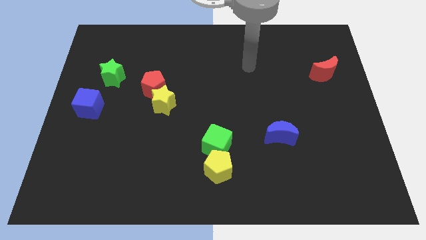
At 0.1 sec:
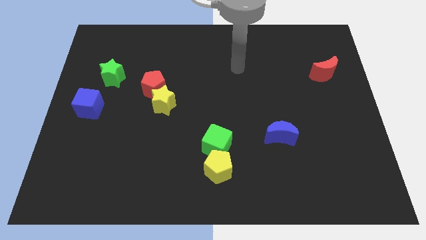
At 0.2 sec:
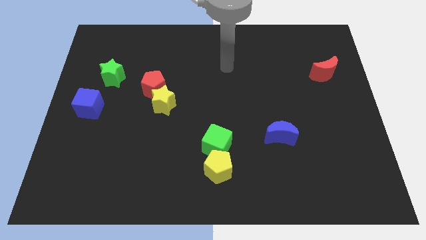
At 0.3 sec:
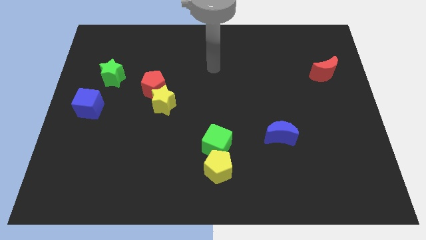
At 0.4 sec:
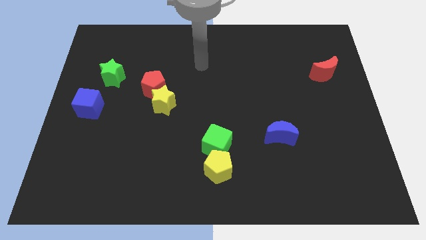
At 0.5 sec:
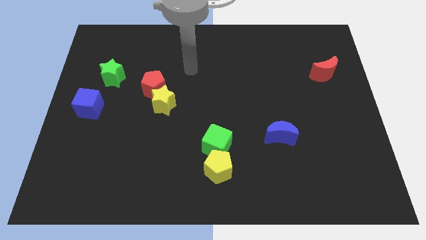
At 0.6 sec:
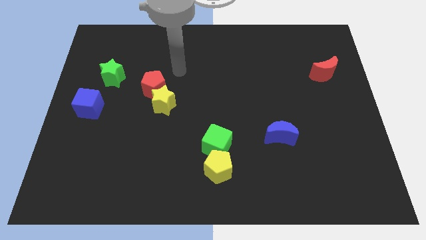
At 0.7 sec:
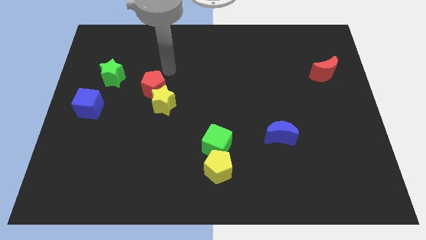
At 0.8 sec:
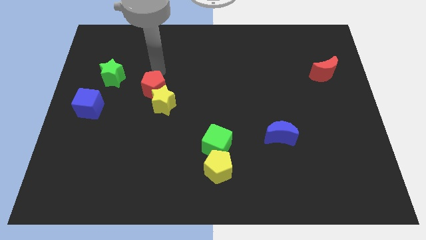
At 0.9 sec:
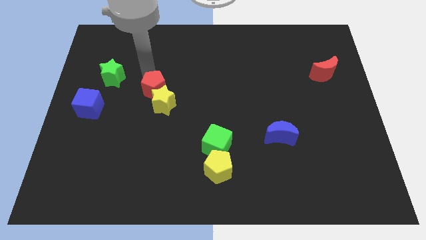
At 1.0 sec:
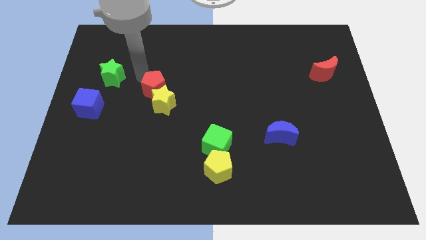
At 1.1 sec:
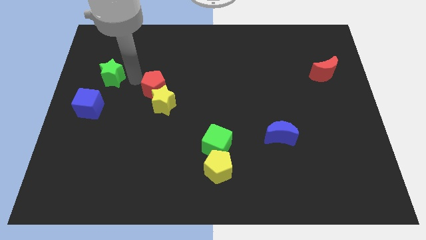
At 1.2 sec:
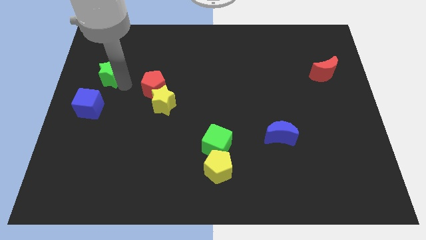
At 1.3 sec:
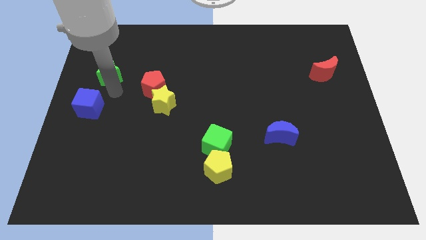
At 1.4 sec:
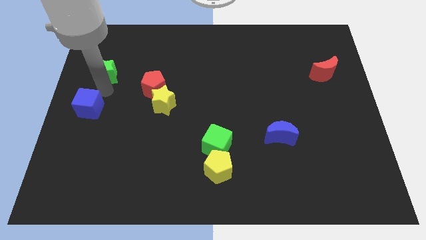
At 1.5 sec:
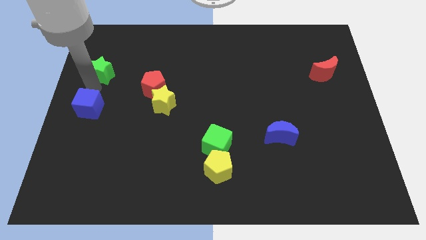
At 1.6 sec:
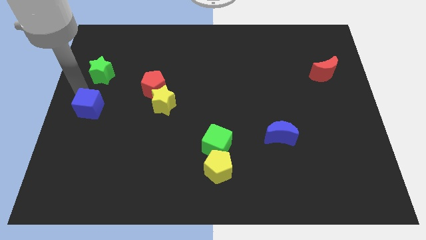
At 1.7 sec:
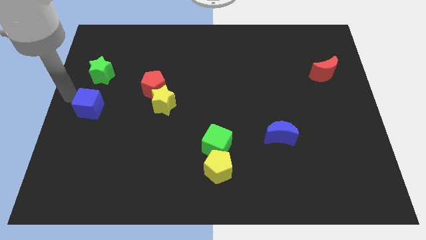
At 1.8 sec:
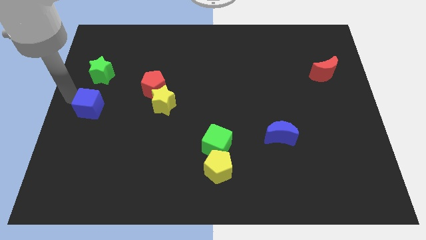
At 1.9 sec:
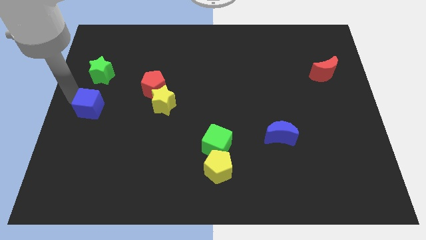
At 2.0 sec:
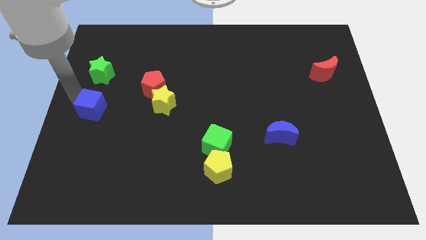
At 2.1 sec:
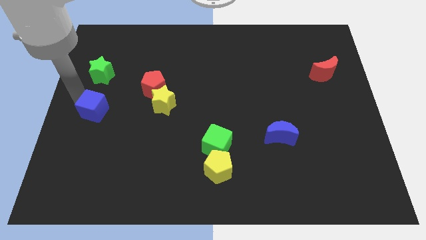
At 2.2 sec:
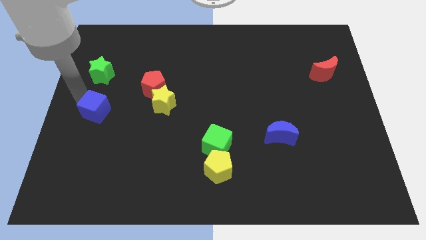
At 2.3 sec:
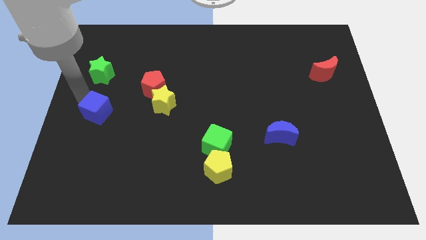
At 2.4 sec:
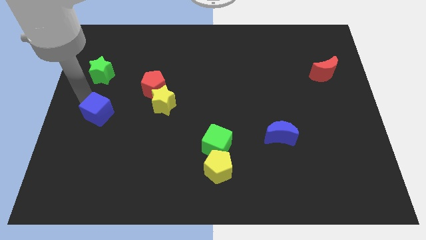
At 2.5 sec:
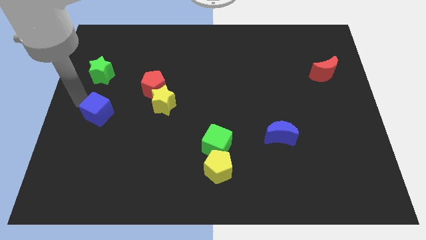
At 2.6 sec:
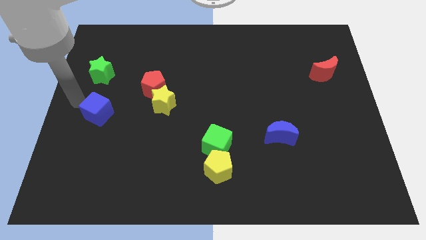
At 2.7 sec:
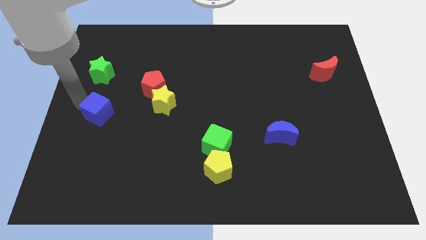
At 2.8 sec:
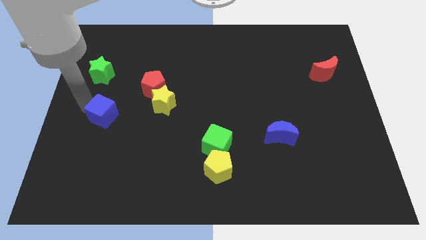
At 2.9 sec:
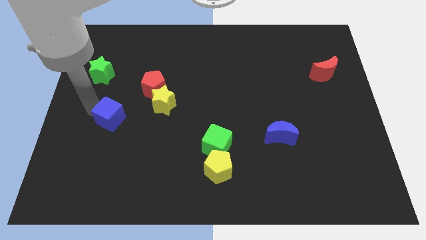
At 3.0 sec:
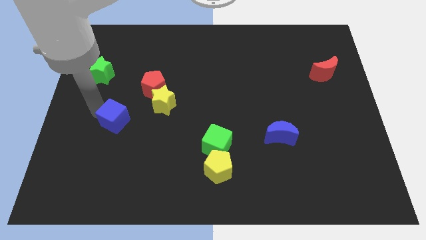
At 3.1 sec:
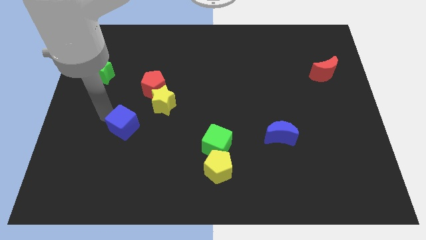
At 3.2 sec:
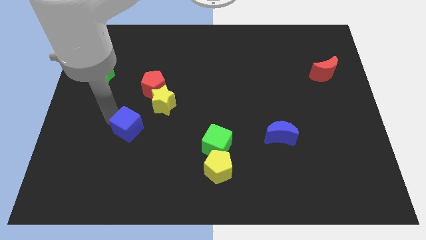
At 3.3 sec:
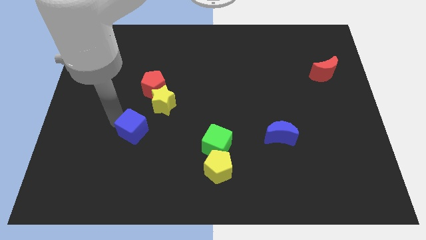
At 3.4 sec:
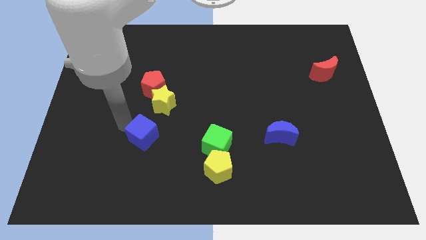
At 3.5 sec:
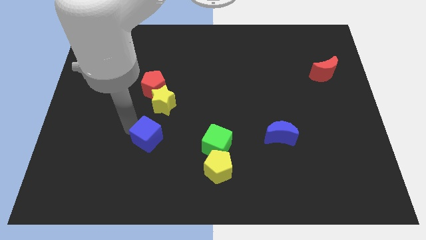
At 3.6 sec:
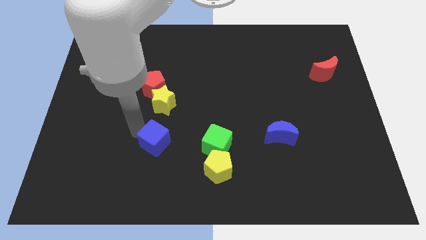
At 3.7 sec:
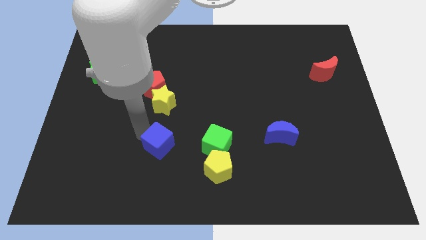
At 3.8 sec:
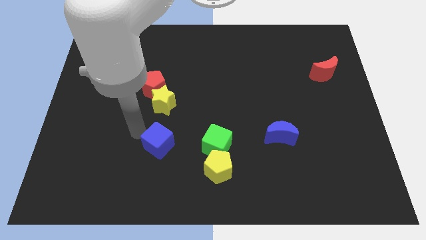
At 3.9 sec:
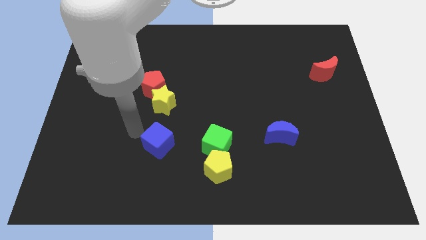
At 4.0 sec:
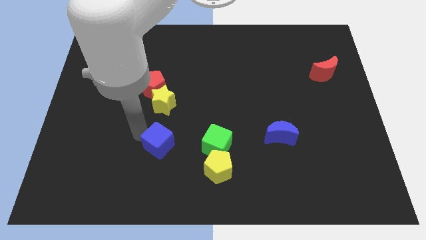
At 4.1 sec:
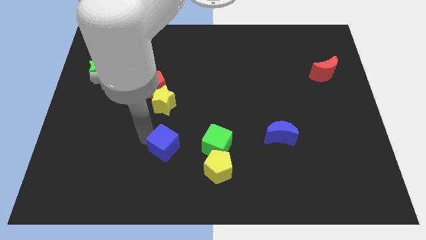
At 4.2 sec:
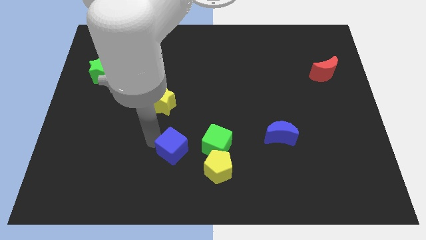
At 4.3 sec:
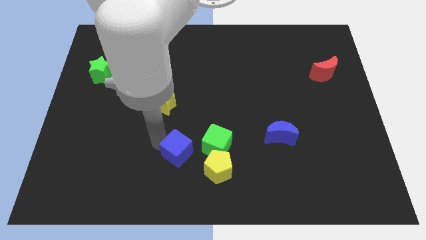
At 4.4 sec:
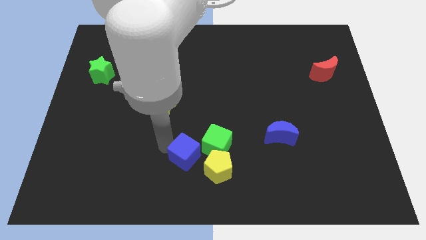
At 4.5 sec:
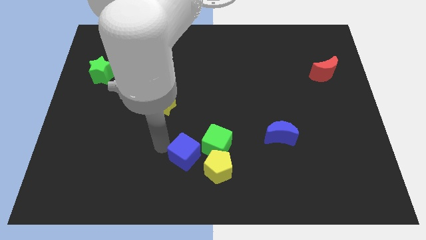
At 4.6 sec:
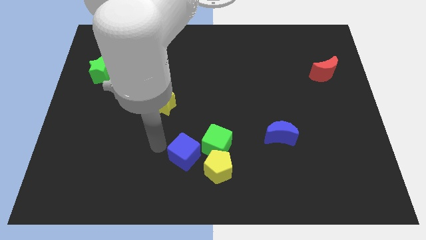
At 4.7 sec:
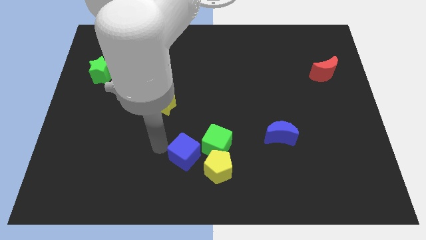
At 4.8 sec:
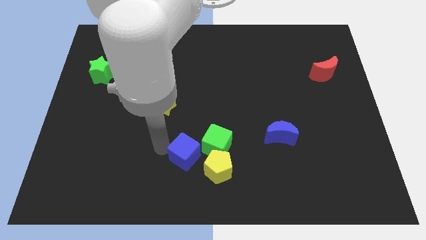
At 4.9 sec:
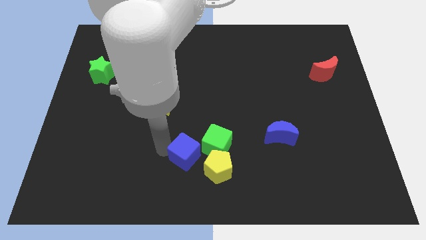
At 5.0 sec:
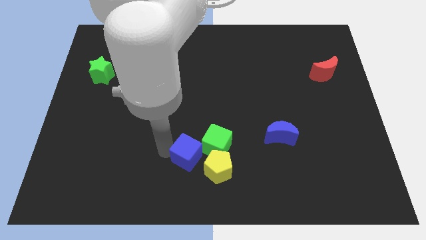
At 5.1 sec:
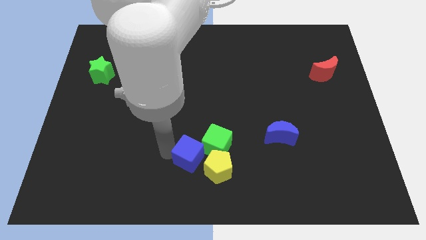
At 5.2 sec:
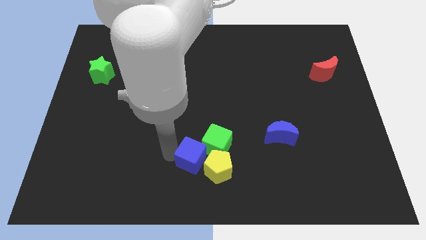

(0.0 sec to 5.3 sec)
move the blue cube to the yellow pentagon

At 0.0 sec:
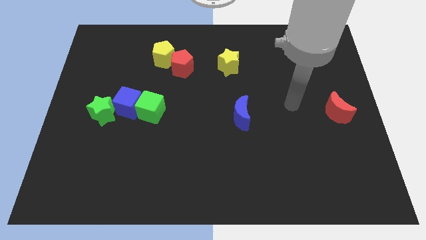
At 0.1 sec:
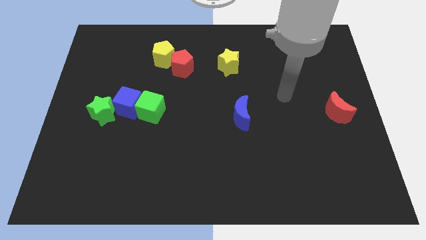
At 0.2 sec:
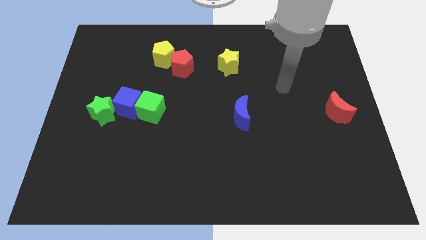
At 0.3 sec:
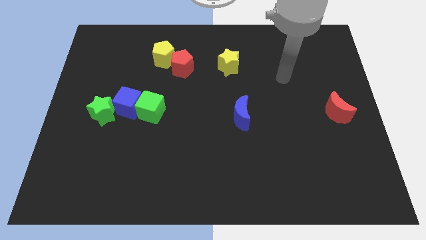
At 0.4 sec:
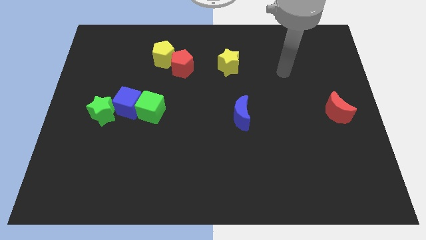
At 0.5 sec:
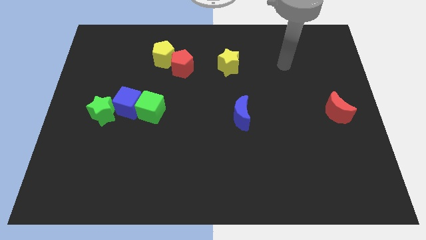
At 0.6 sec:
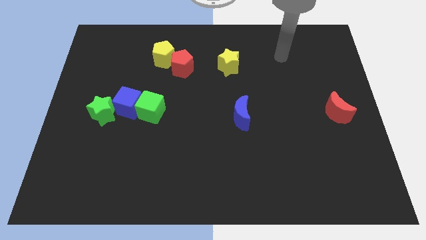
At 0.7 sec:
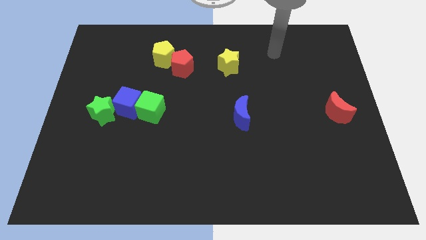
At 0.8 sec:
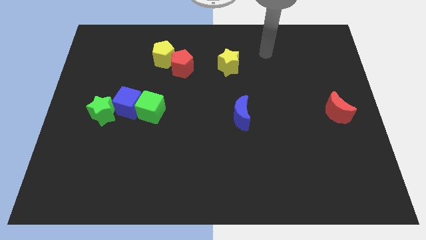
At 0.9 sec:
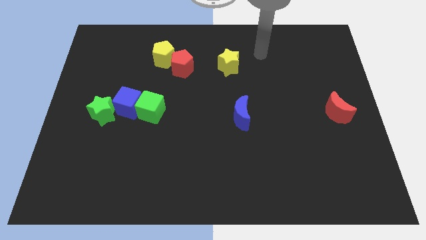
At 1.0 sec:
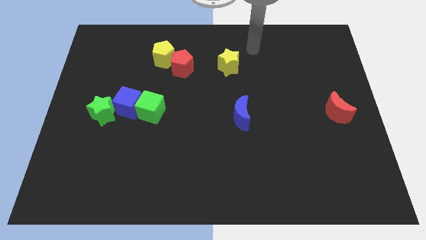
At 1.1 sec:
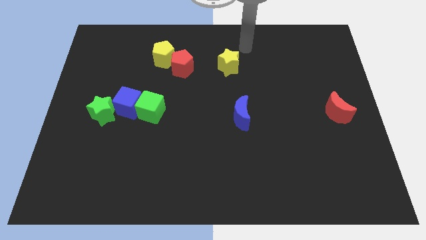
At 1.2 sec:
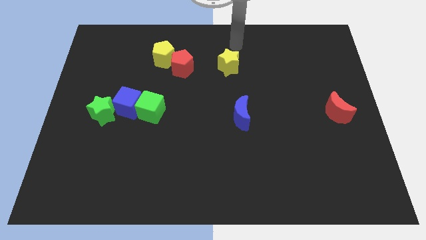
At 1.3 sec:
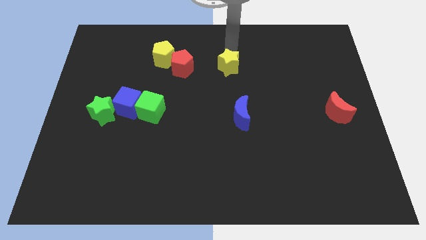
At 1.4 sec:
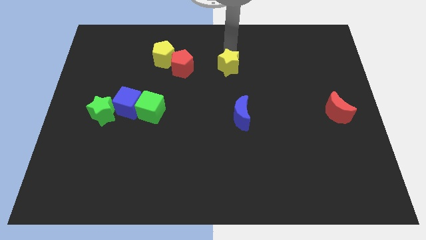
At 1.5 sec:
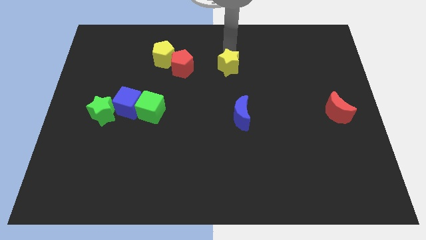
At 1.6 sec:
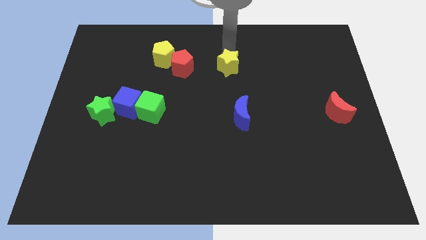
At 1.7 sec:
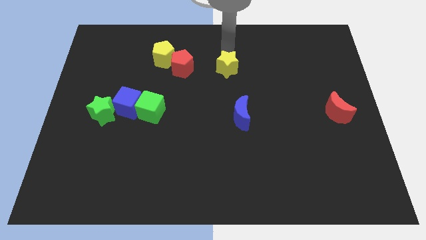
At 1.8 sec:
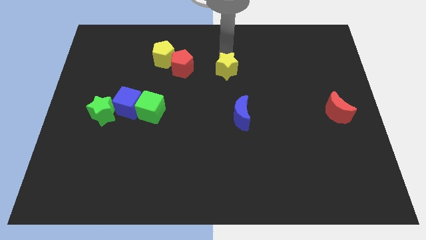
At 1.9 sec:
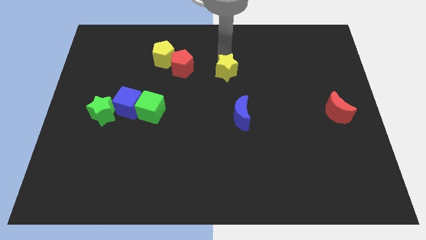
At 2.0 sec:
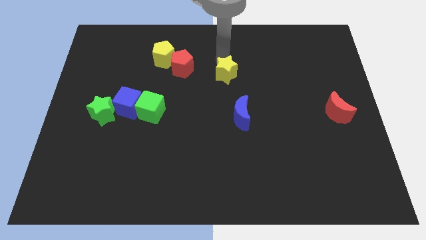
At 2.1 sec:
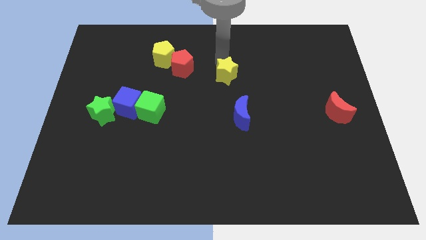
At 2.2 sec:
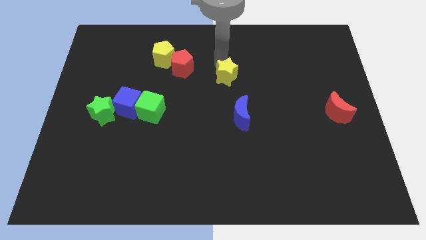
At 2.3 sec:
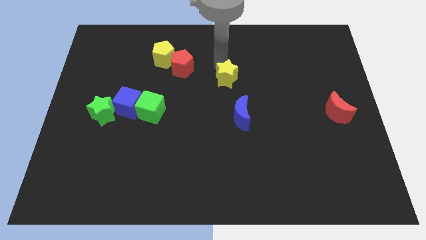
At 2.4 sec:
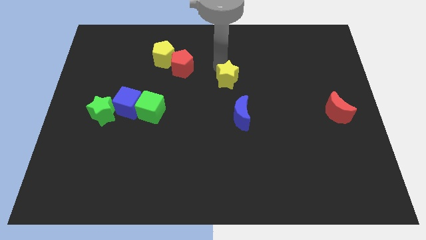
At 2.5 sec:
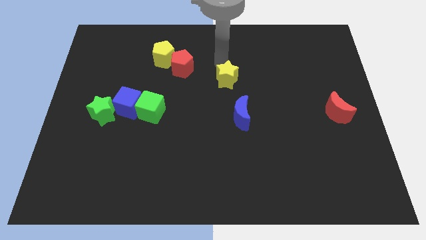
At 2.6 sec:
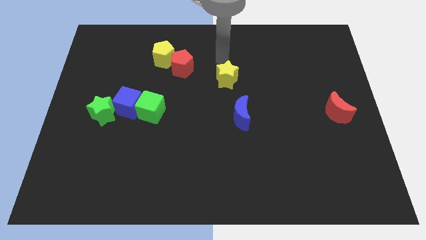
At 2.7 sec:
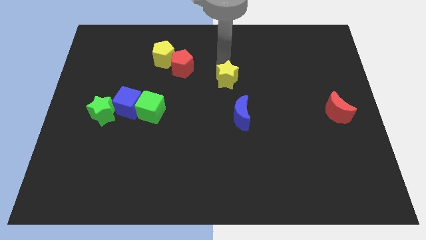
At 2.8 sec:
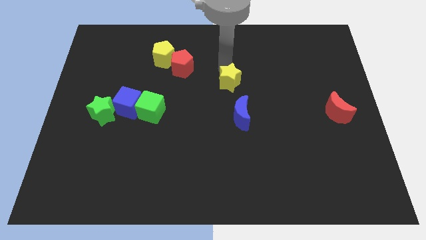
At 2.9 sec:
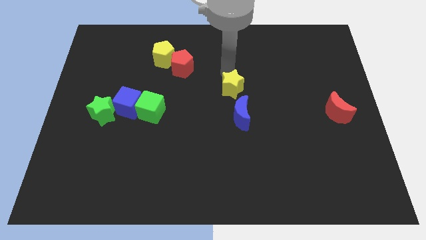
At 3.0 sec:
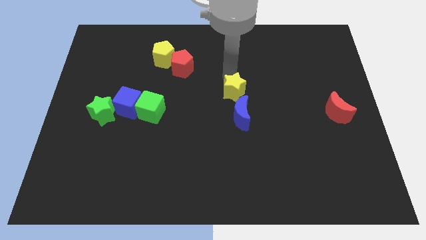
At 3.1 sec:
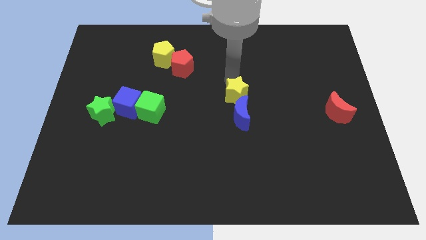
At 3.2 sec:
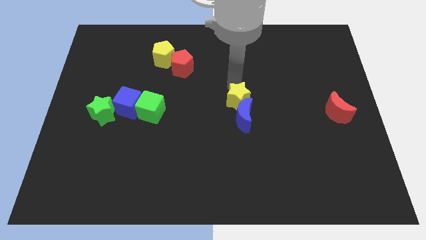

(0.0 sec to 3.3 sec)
push the yellow star towards the blue moon
